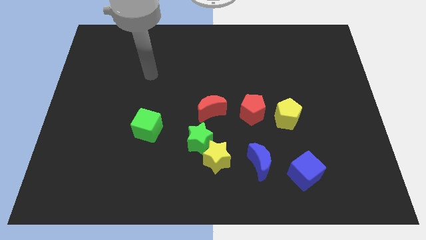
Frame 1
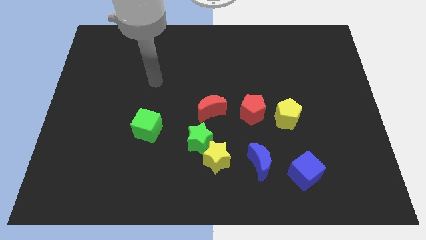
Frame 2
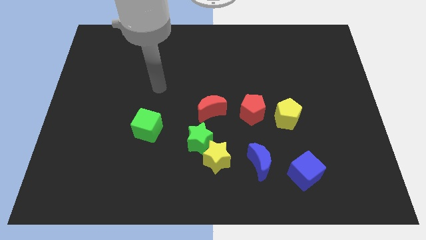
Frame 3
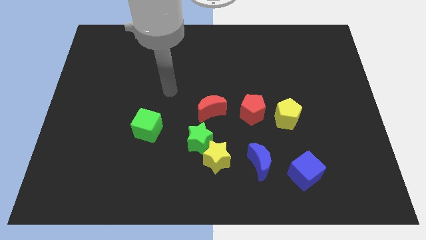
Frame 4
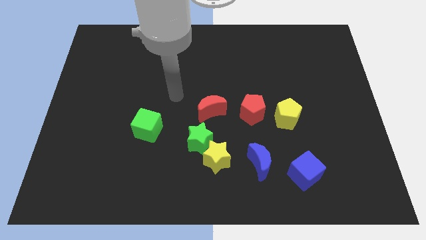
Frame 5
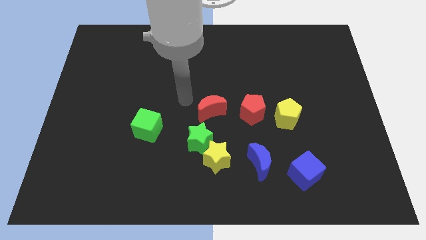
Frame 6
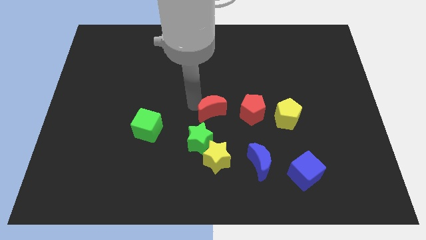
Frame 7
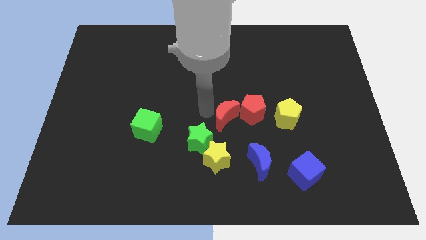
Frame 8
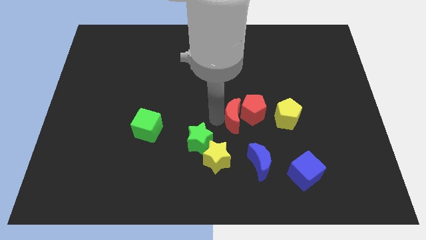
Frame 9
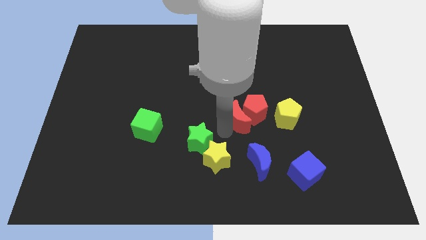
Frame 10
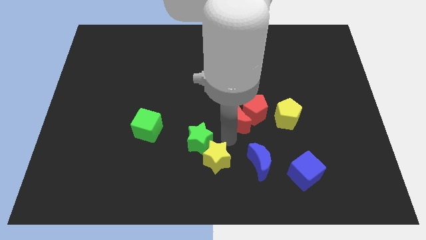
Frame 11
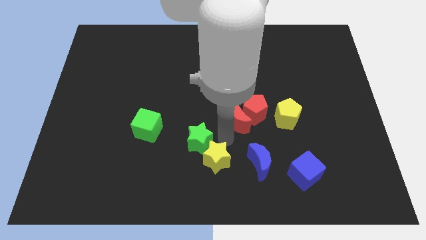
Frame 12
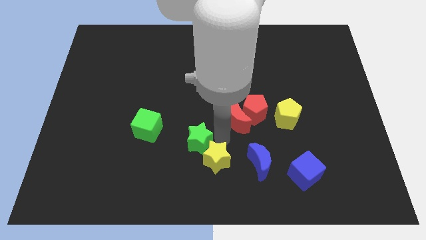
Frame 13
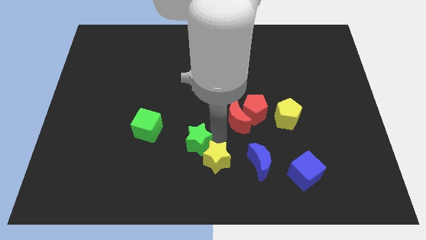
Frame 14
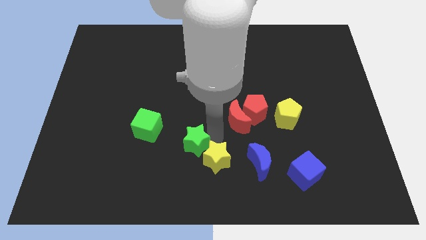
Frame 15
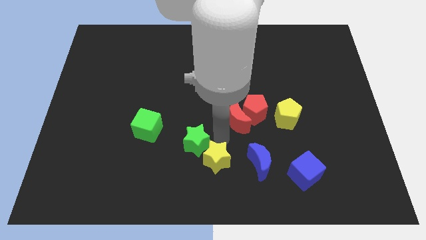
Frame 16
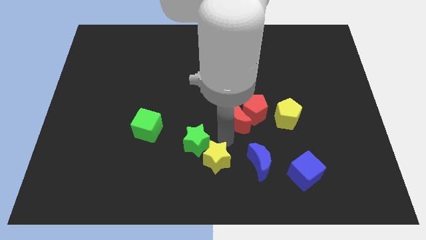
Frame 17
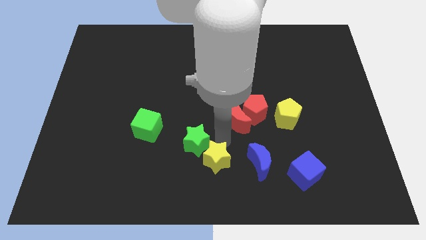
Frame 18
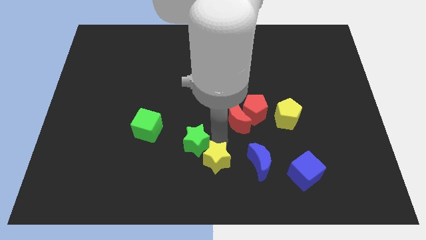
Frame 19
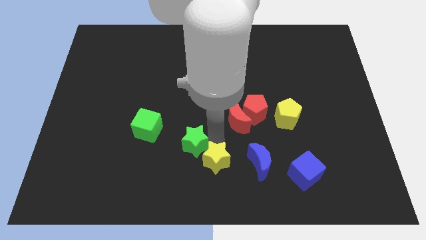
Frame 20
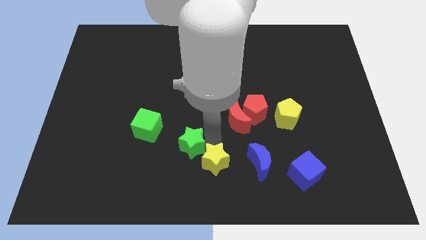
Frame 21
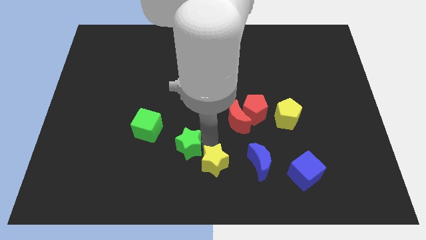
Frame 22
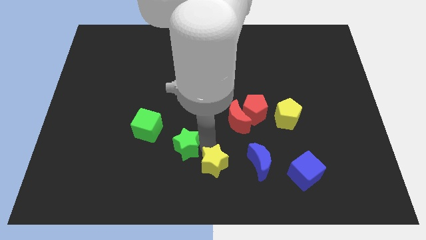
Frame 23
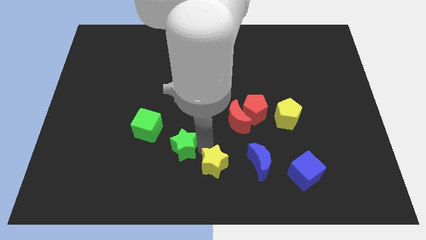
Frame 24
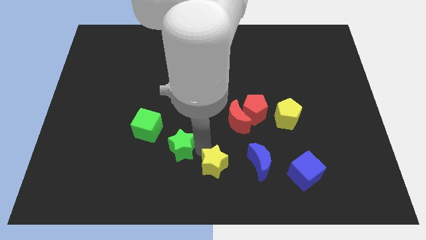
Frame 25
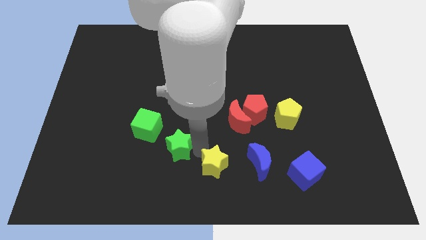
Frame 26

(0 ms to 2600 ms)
separate the green star from the yellow star and red moon

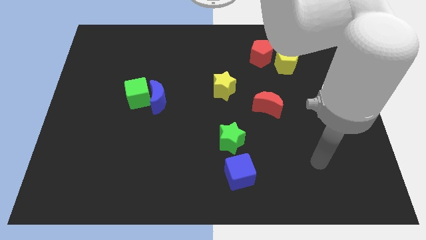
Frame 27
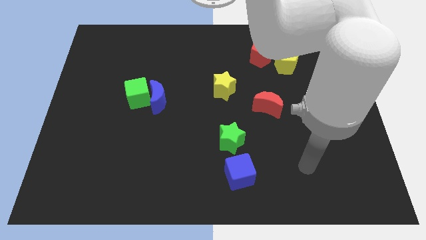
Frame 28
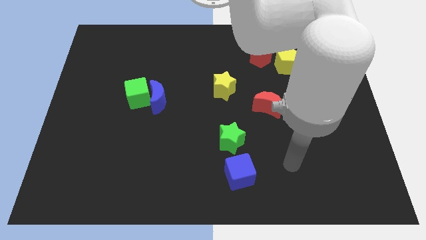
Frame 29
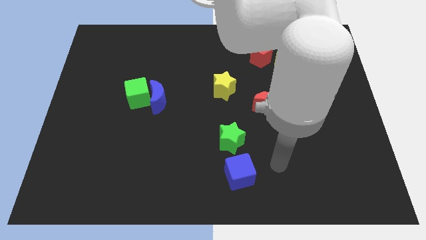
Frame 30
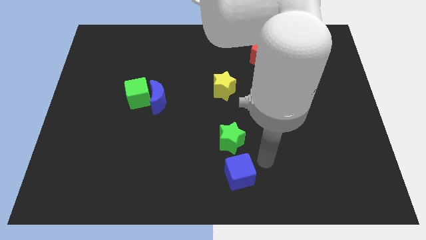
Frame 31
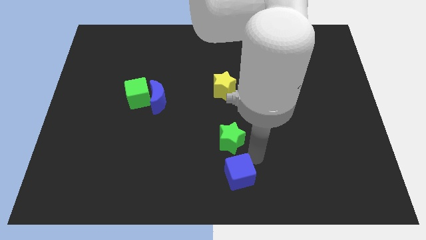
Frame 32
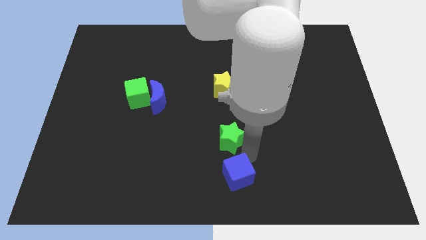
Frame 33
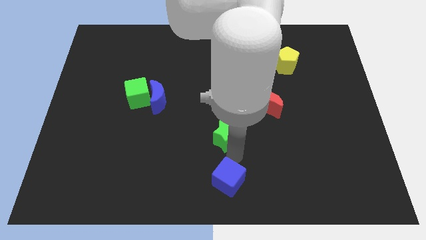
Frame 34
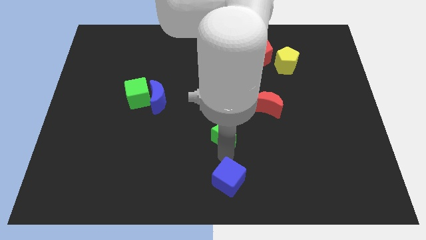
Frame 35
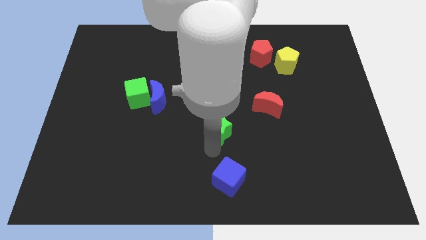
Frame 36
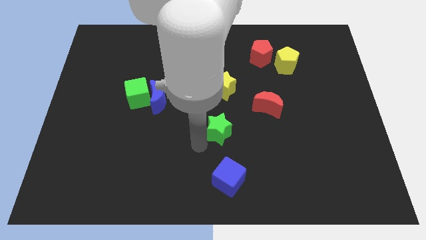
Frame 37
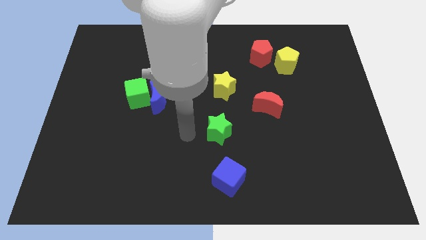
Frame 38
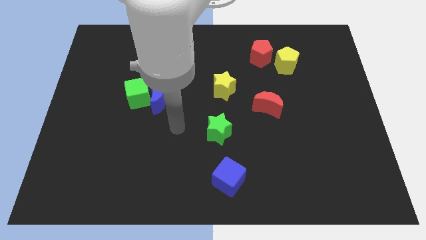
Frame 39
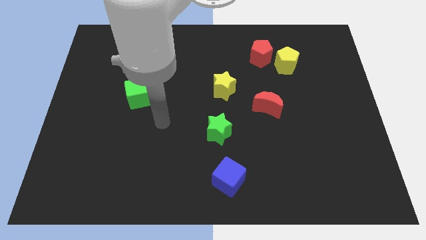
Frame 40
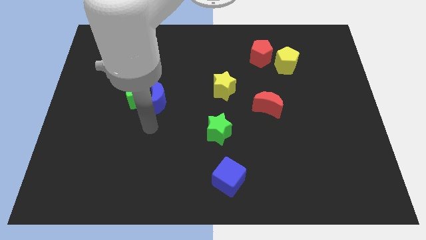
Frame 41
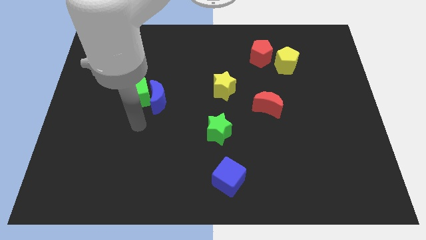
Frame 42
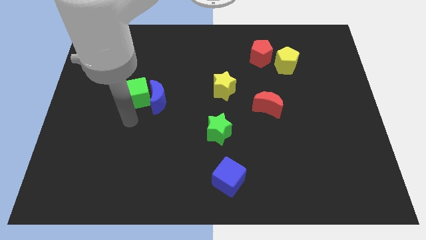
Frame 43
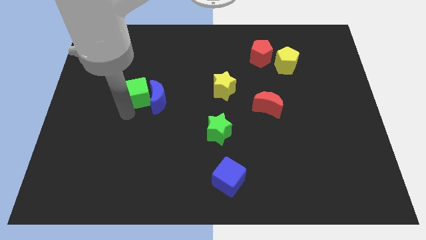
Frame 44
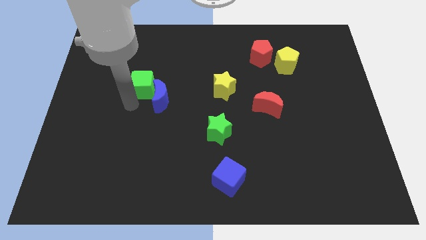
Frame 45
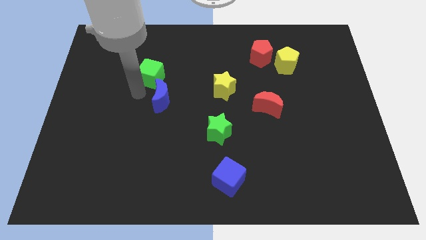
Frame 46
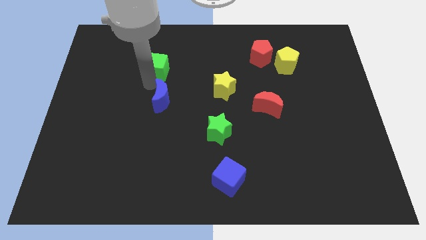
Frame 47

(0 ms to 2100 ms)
pull the blue moon apart from the green cube

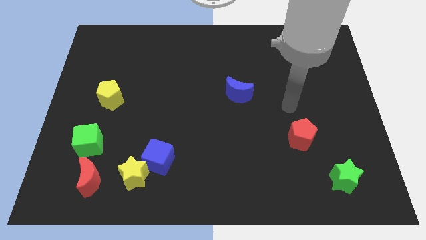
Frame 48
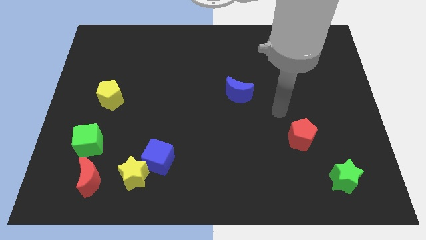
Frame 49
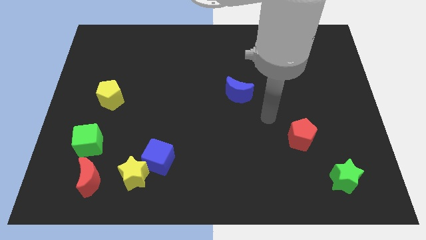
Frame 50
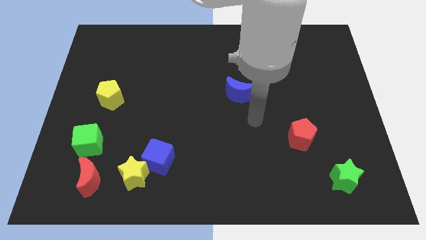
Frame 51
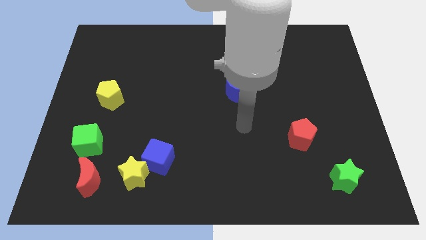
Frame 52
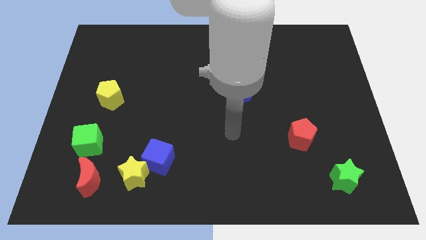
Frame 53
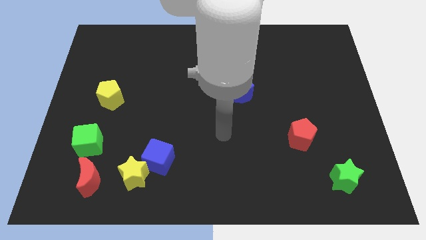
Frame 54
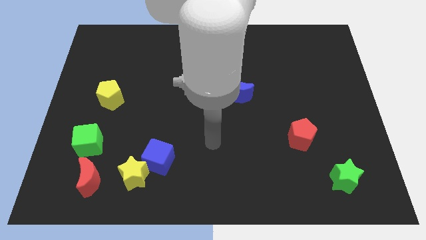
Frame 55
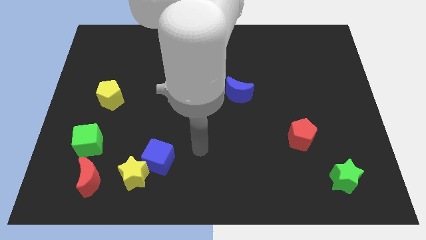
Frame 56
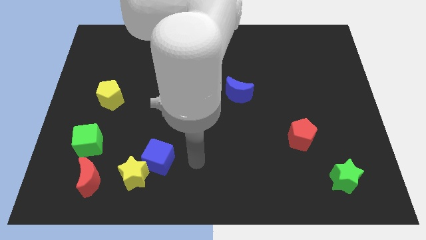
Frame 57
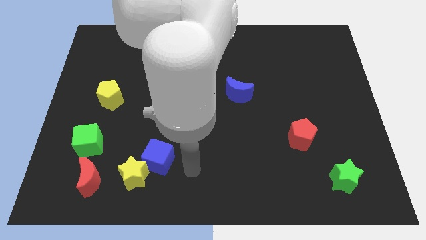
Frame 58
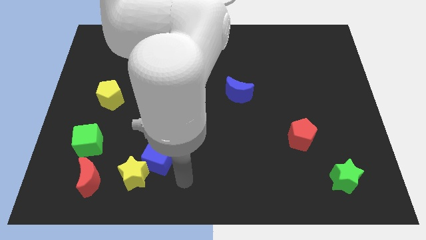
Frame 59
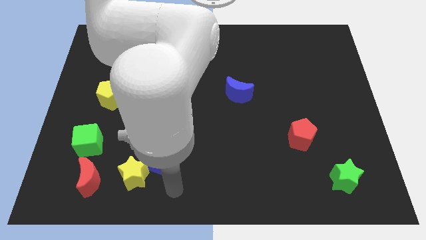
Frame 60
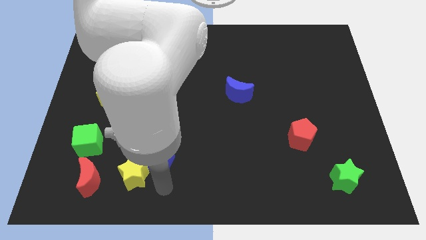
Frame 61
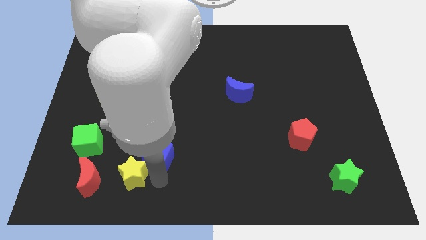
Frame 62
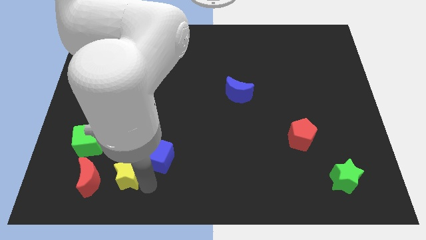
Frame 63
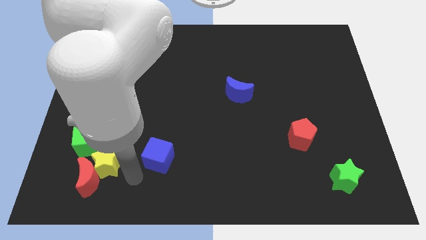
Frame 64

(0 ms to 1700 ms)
pull the blue cube apart from the yellow star

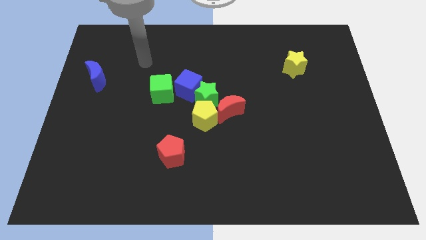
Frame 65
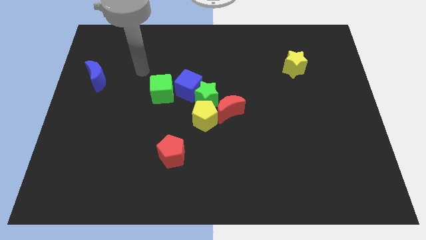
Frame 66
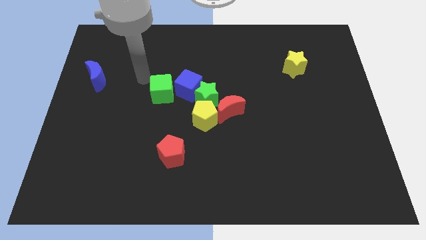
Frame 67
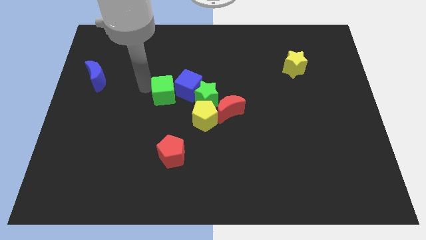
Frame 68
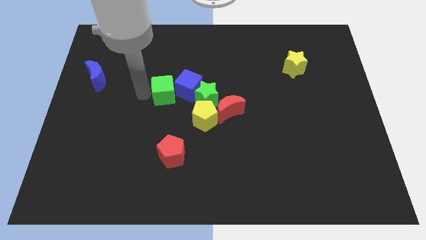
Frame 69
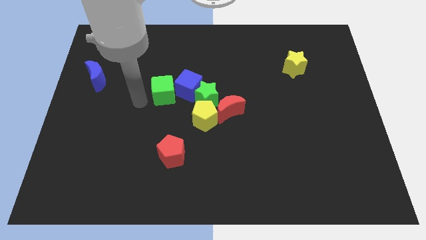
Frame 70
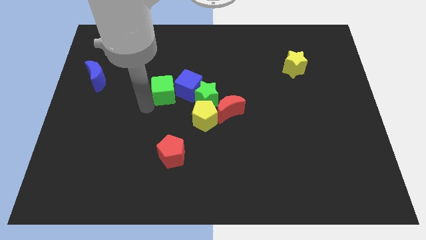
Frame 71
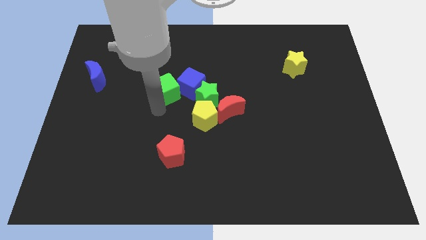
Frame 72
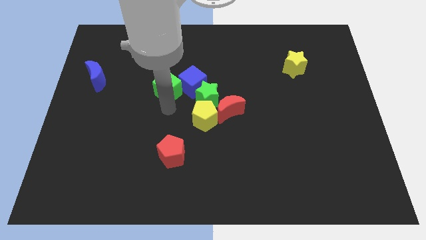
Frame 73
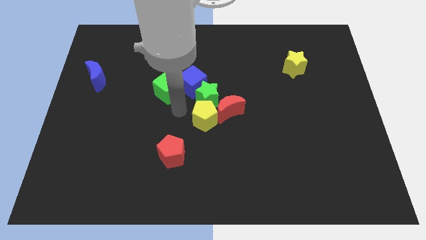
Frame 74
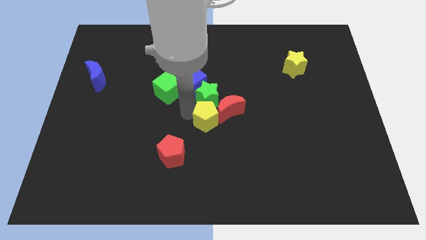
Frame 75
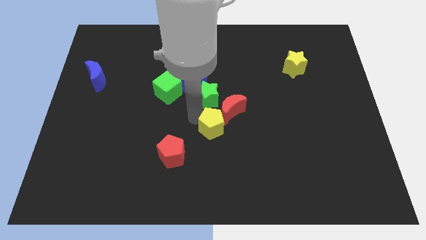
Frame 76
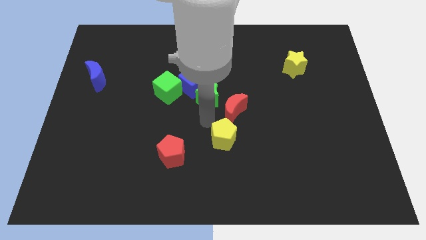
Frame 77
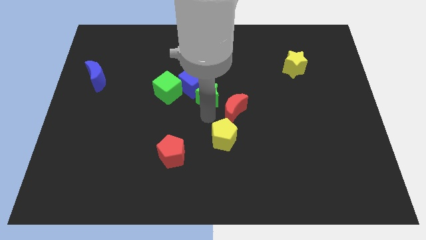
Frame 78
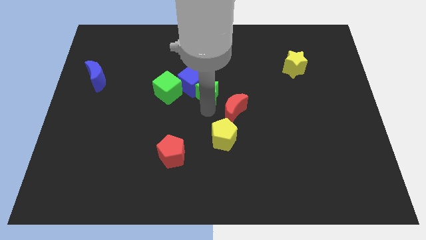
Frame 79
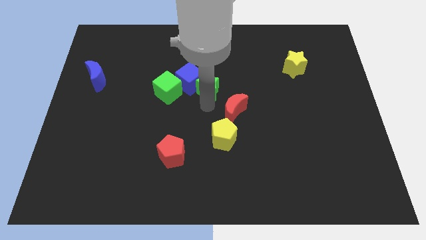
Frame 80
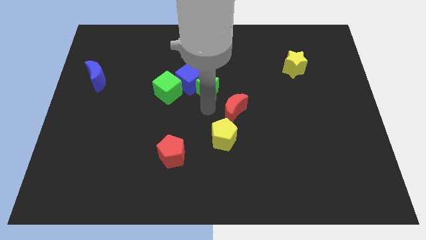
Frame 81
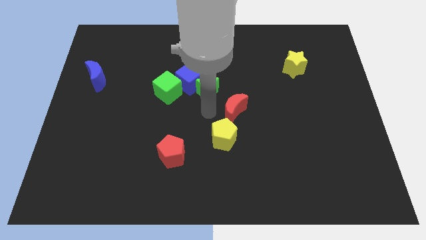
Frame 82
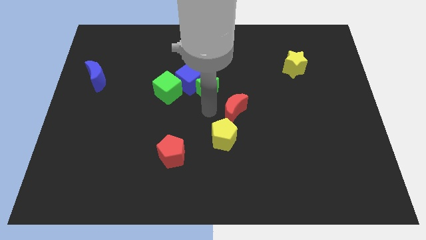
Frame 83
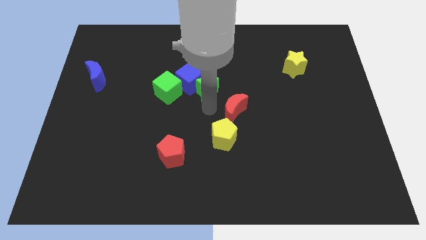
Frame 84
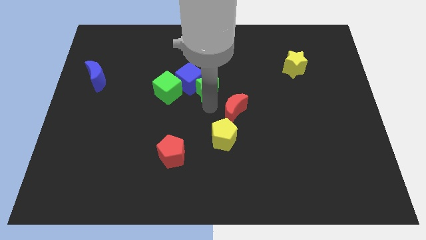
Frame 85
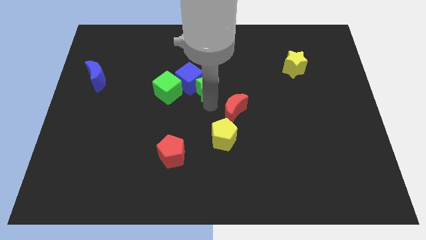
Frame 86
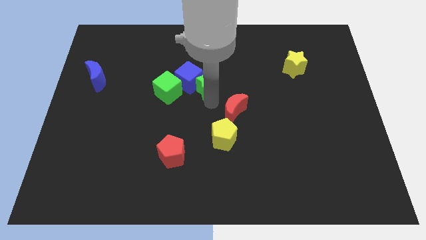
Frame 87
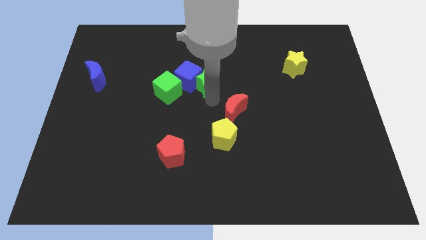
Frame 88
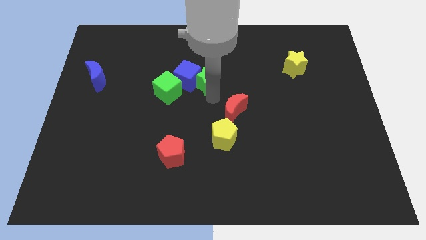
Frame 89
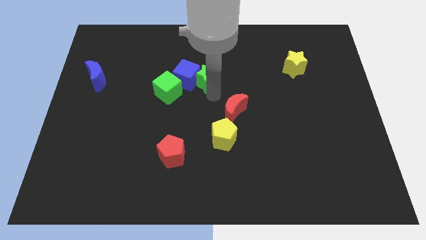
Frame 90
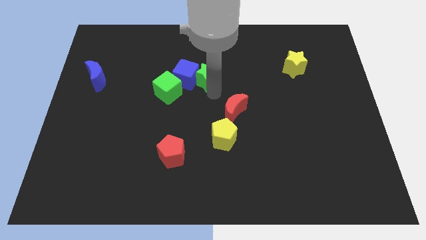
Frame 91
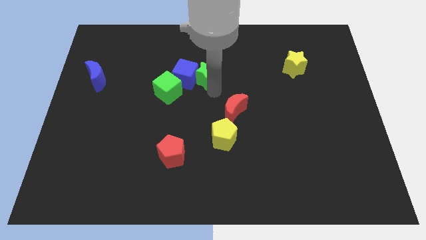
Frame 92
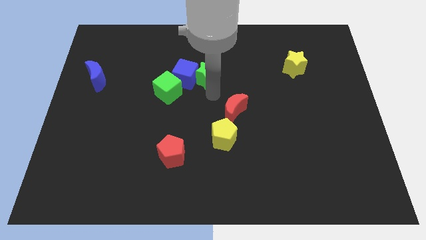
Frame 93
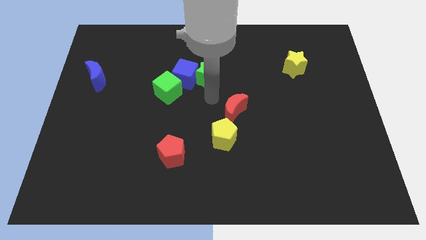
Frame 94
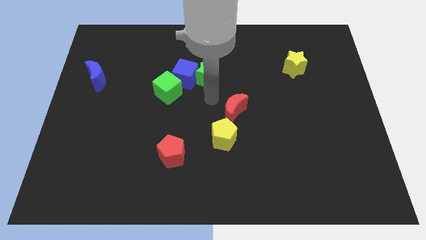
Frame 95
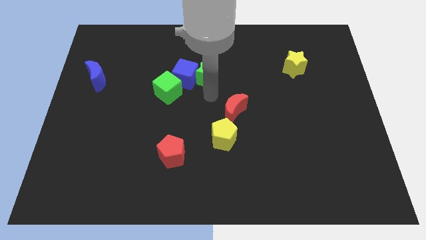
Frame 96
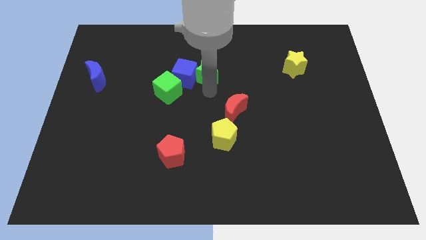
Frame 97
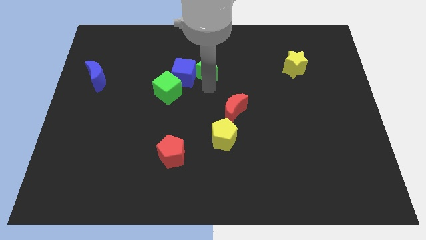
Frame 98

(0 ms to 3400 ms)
pull the green star apart from the blue cube, yellow pentagon, and red moon
